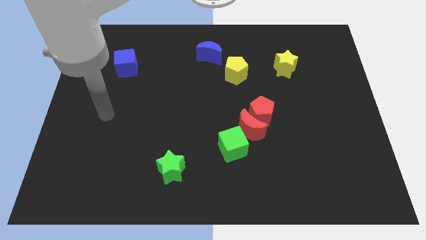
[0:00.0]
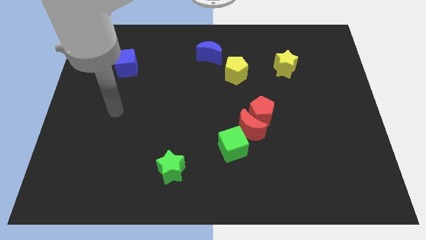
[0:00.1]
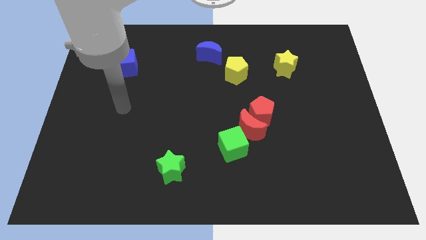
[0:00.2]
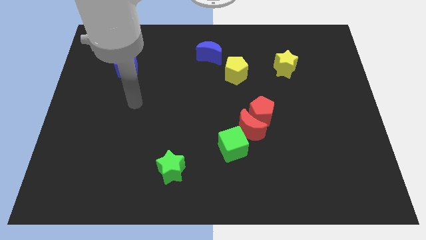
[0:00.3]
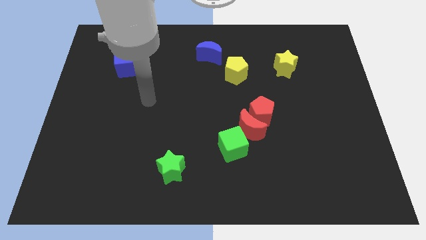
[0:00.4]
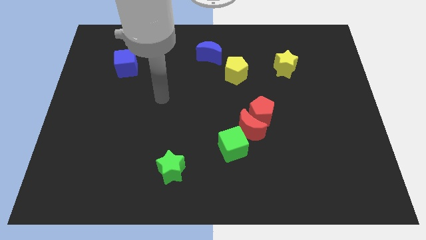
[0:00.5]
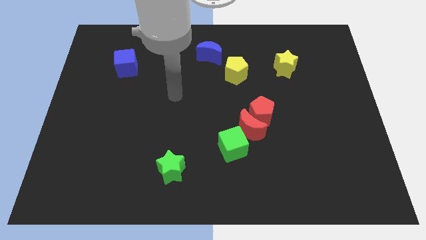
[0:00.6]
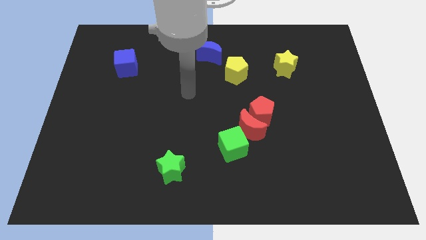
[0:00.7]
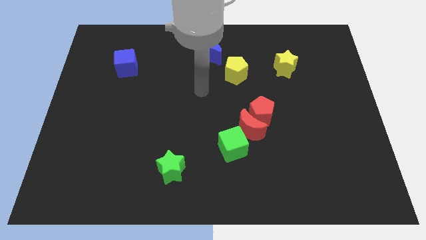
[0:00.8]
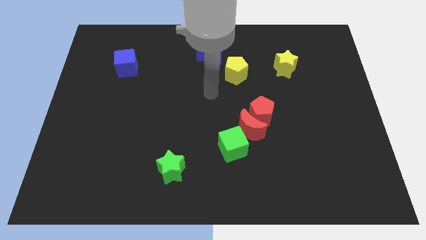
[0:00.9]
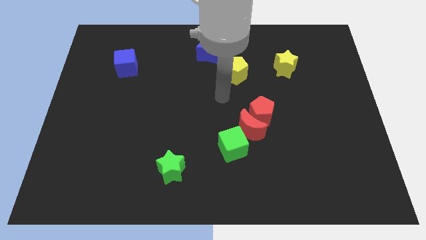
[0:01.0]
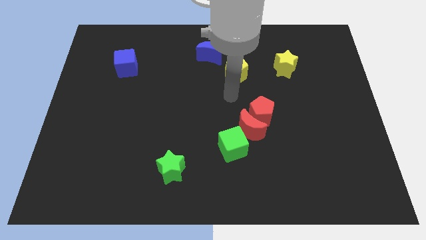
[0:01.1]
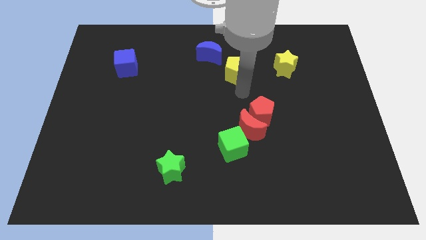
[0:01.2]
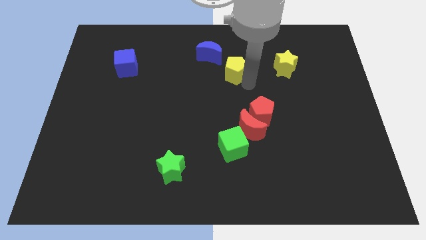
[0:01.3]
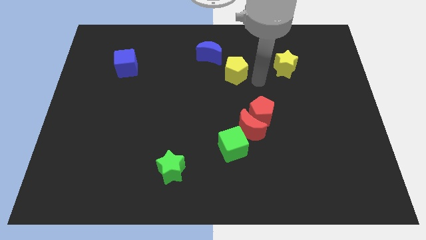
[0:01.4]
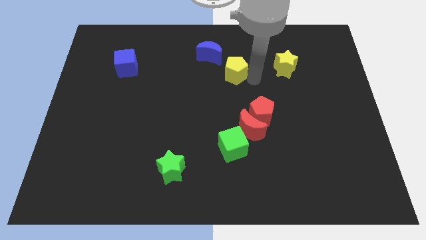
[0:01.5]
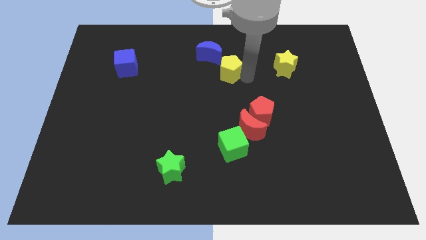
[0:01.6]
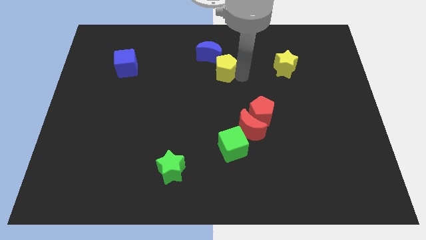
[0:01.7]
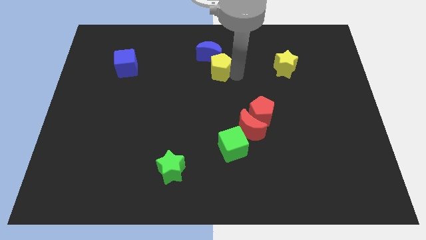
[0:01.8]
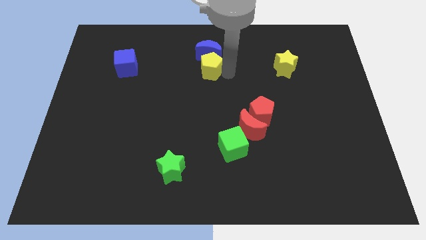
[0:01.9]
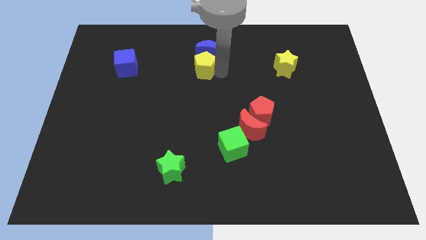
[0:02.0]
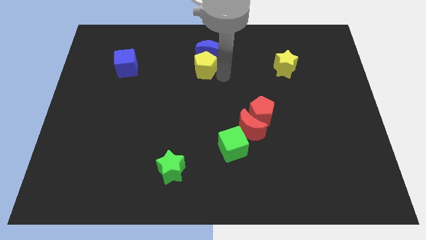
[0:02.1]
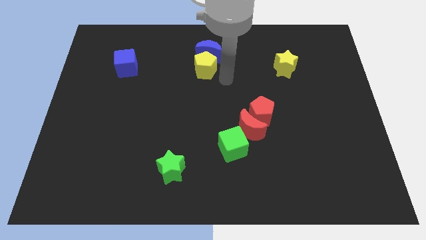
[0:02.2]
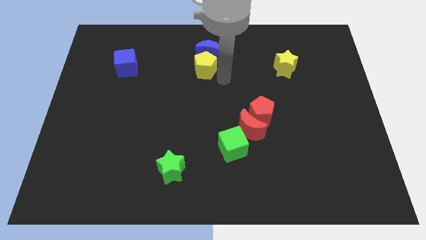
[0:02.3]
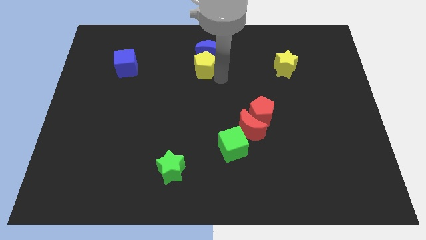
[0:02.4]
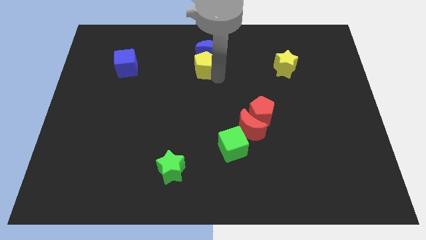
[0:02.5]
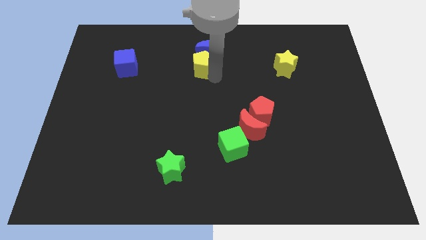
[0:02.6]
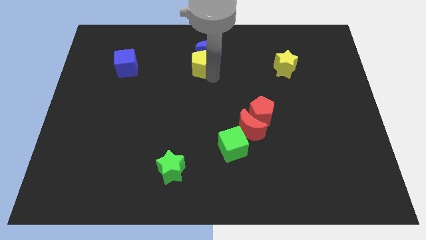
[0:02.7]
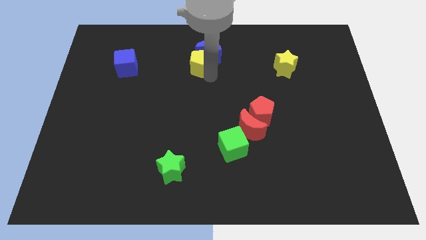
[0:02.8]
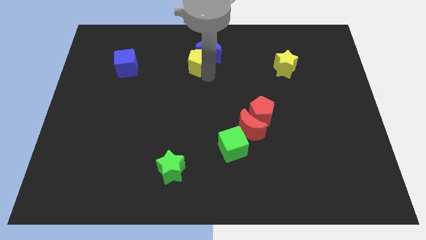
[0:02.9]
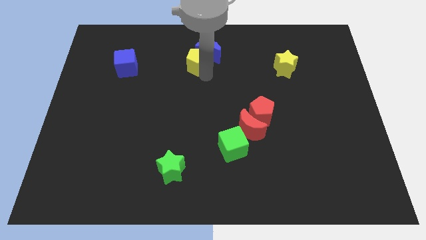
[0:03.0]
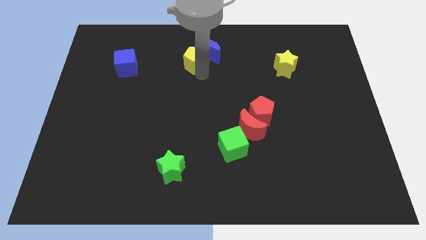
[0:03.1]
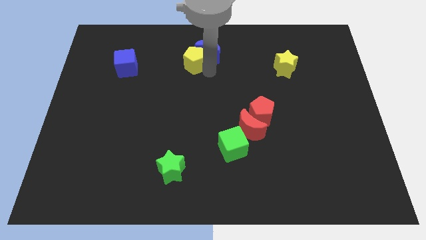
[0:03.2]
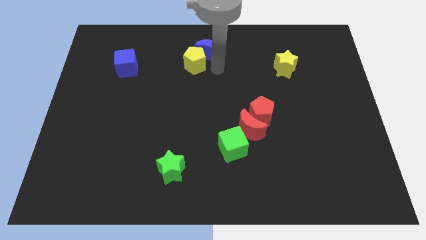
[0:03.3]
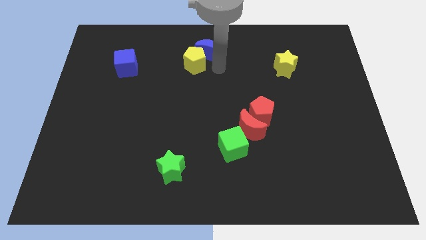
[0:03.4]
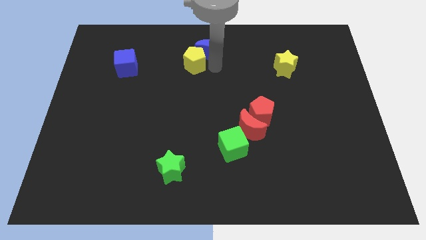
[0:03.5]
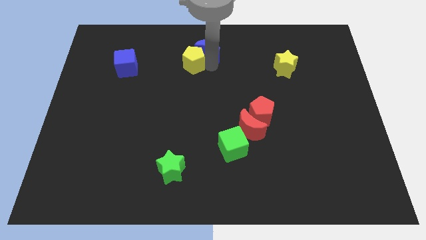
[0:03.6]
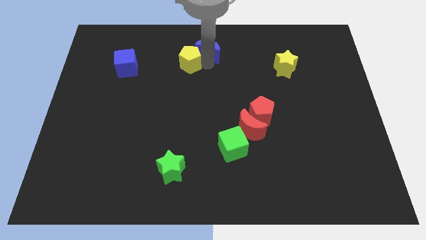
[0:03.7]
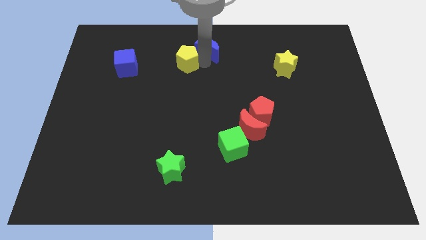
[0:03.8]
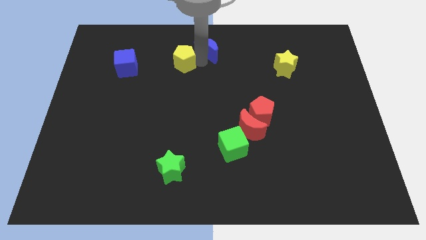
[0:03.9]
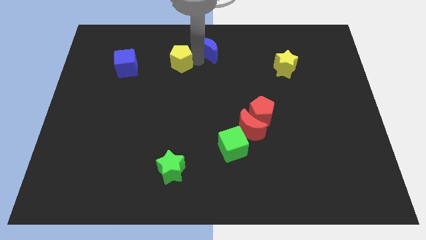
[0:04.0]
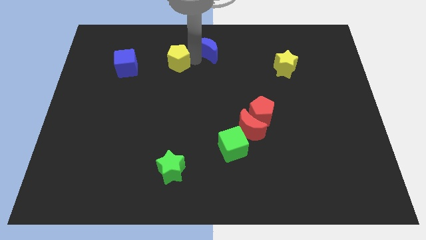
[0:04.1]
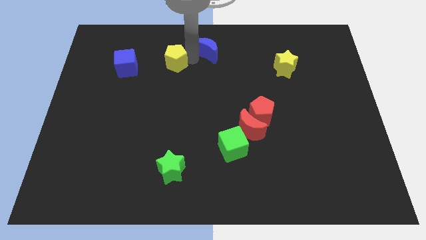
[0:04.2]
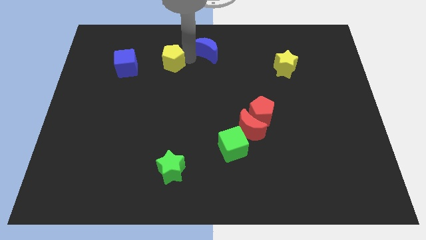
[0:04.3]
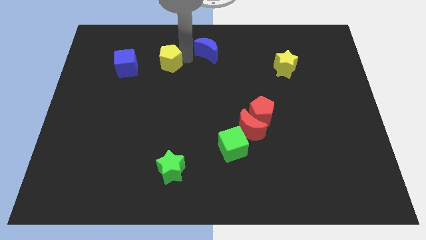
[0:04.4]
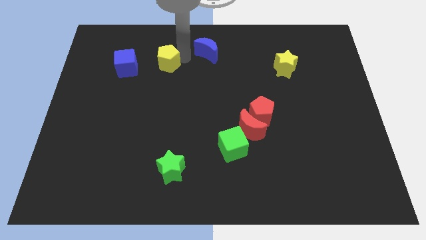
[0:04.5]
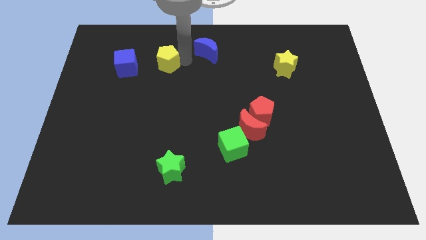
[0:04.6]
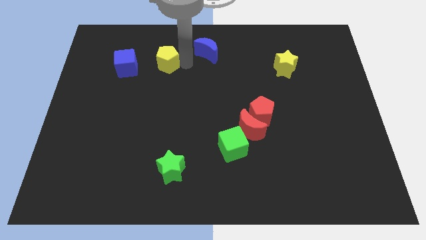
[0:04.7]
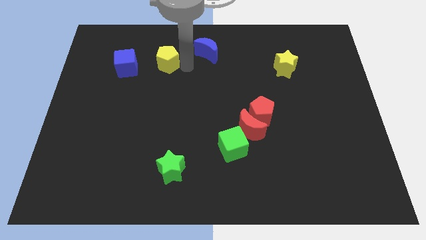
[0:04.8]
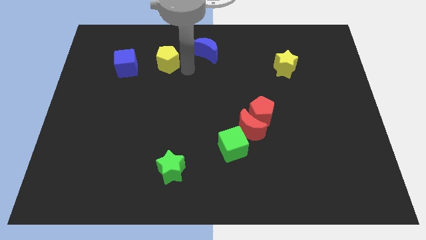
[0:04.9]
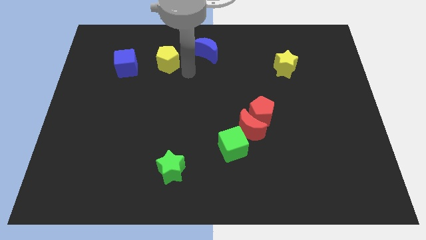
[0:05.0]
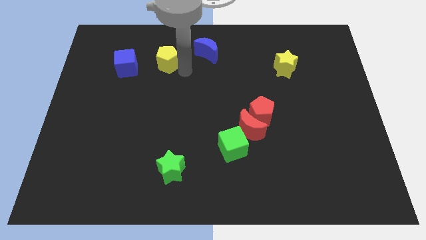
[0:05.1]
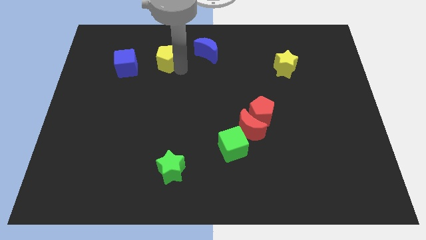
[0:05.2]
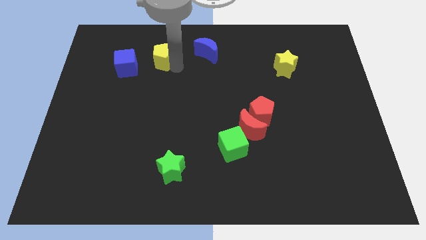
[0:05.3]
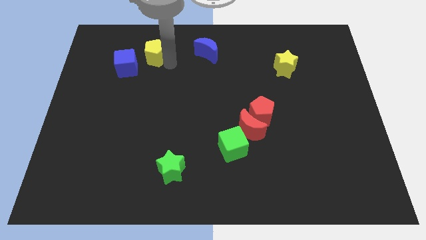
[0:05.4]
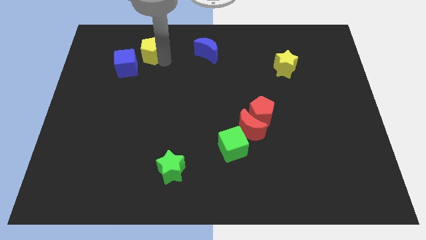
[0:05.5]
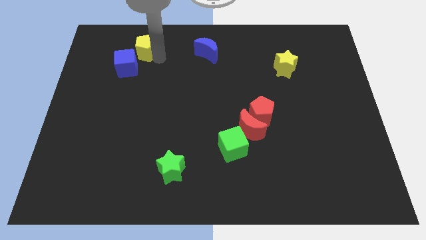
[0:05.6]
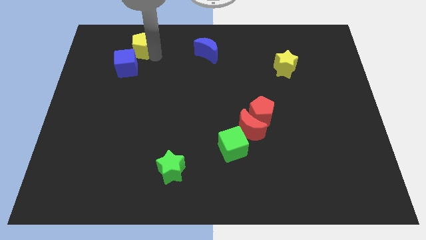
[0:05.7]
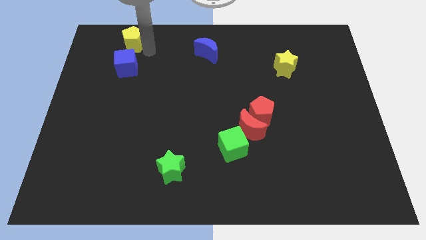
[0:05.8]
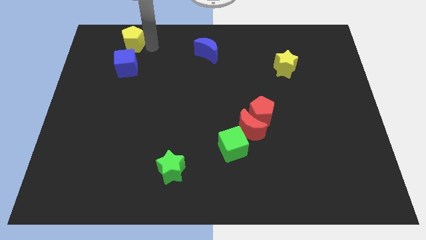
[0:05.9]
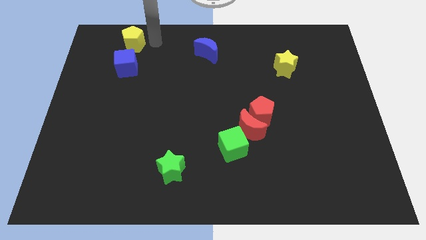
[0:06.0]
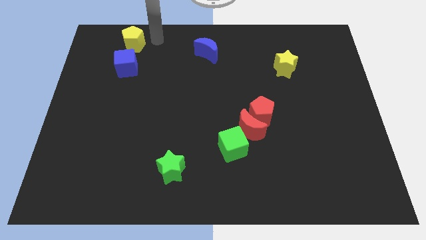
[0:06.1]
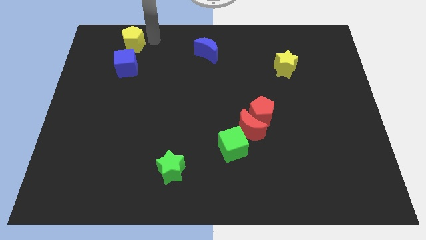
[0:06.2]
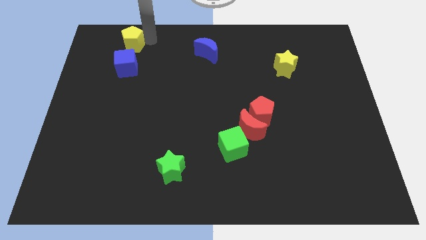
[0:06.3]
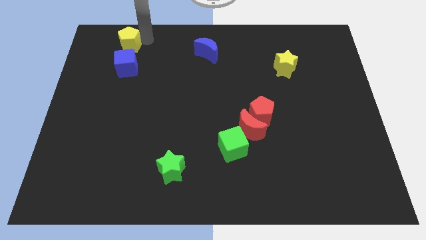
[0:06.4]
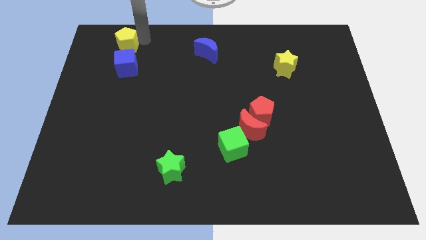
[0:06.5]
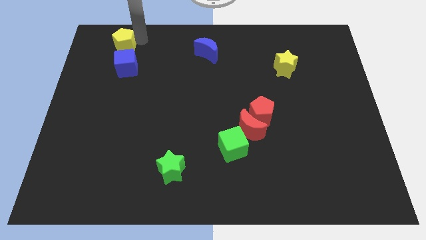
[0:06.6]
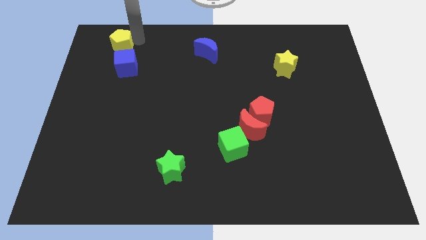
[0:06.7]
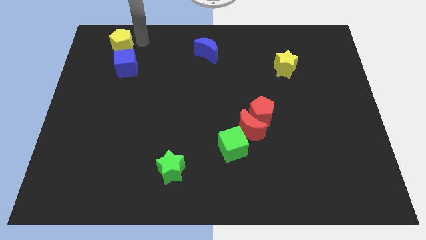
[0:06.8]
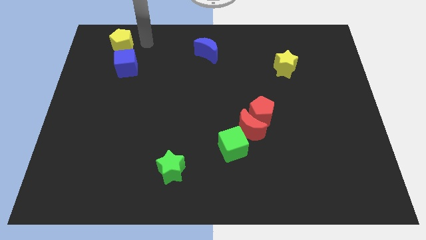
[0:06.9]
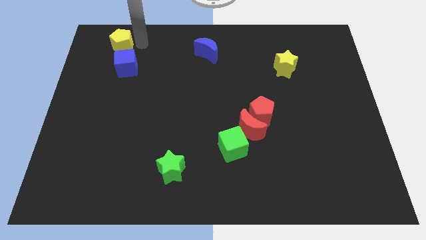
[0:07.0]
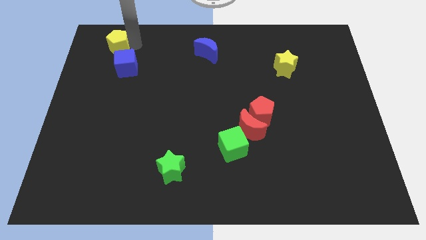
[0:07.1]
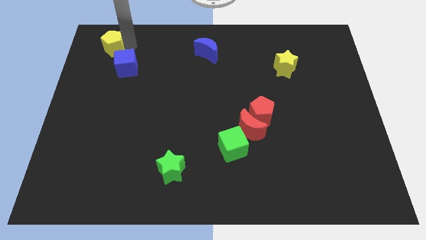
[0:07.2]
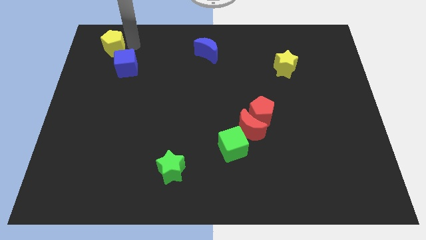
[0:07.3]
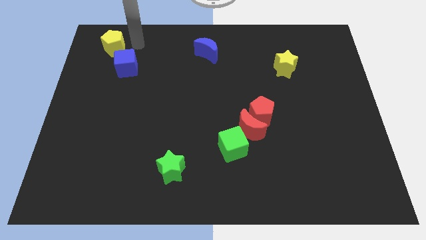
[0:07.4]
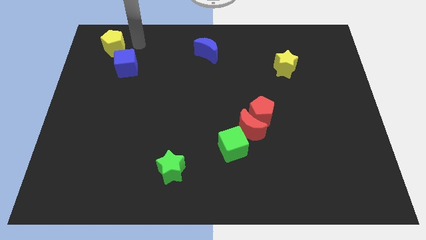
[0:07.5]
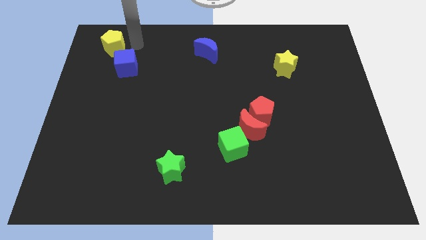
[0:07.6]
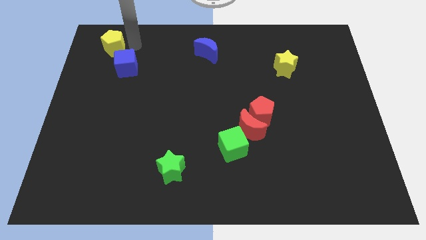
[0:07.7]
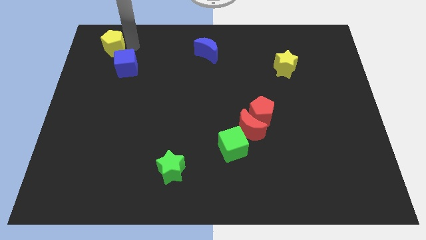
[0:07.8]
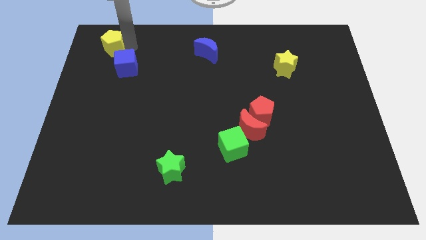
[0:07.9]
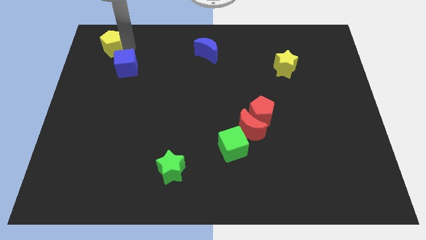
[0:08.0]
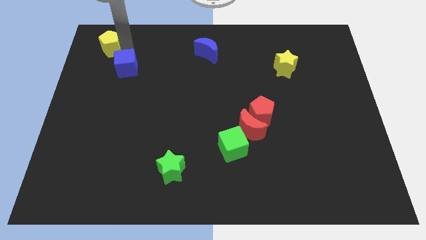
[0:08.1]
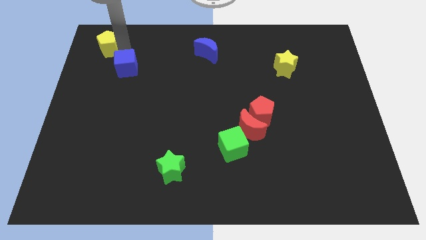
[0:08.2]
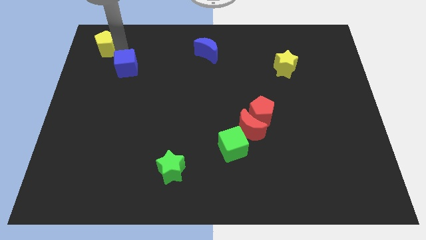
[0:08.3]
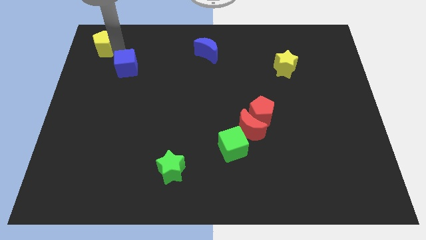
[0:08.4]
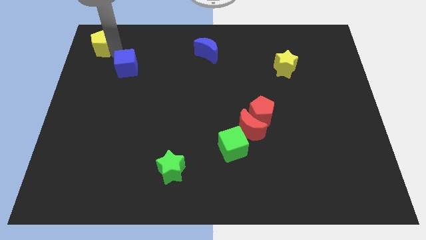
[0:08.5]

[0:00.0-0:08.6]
push the yellow pentagon to the top left corner
